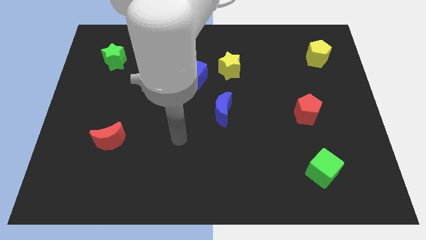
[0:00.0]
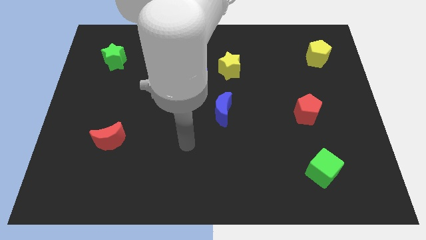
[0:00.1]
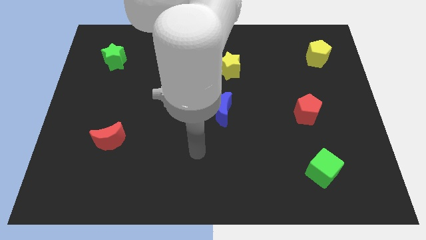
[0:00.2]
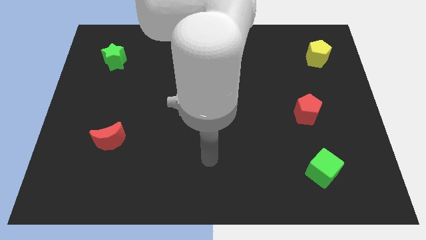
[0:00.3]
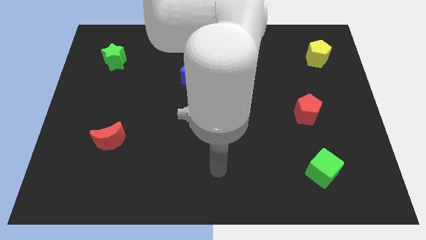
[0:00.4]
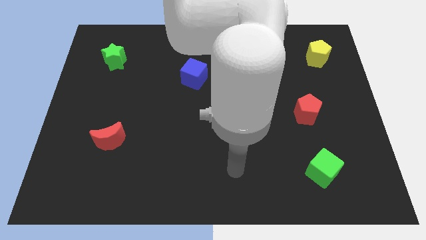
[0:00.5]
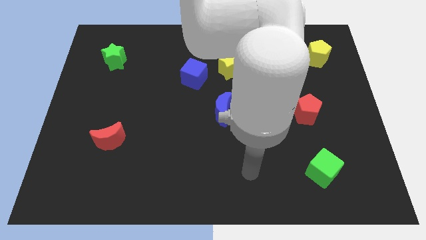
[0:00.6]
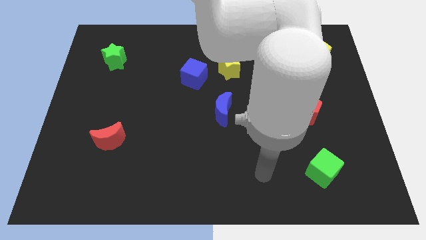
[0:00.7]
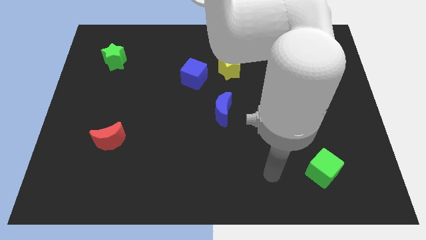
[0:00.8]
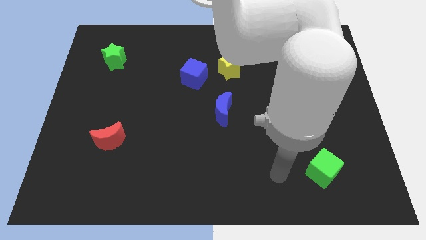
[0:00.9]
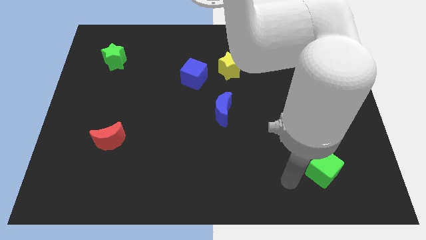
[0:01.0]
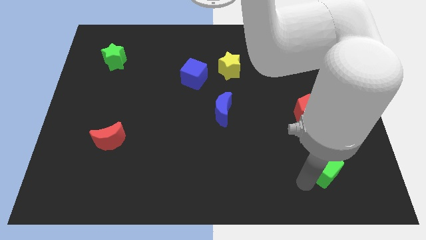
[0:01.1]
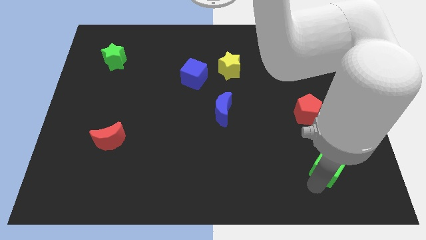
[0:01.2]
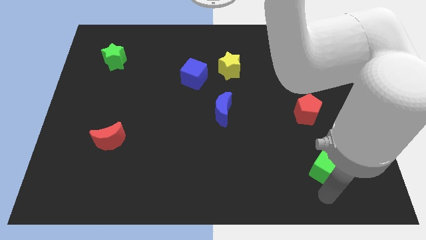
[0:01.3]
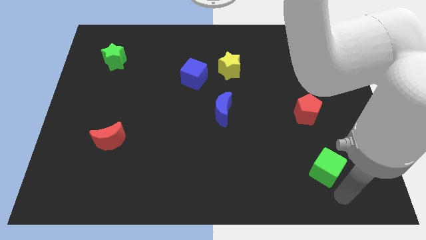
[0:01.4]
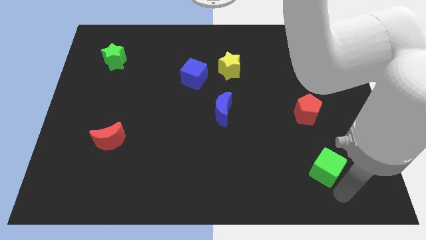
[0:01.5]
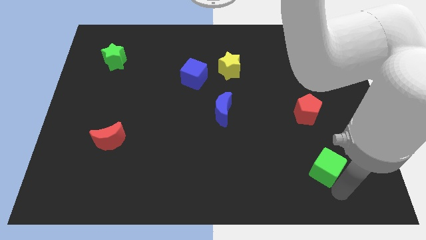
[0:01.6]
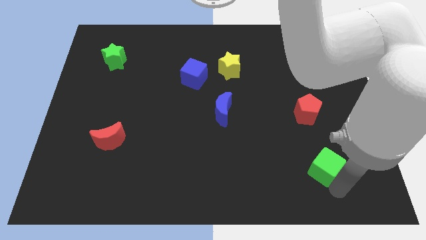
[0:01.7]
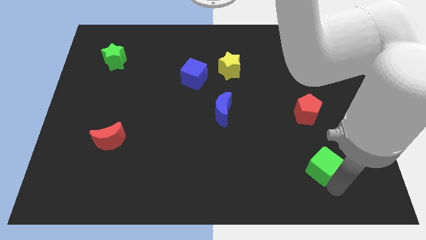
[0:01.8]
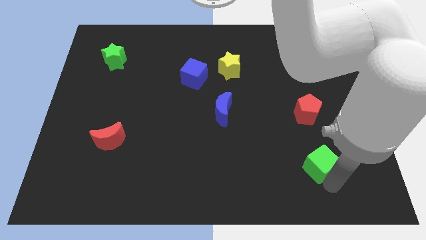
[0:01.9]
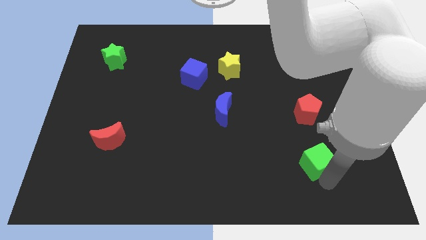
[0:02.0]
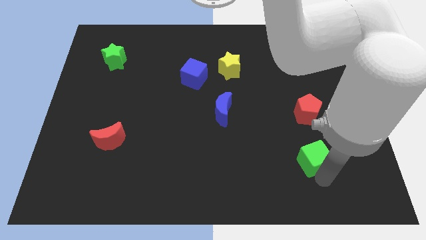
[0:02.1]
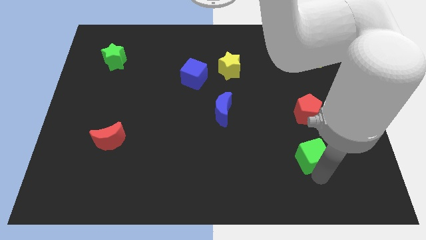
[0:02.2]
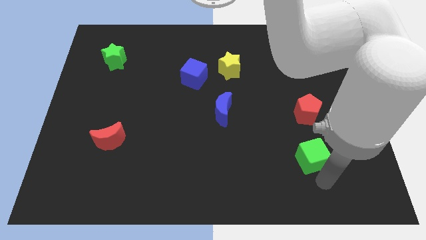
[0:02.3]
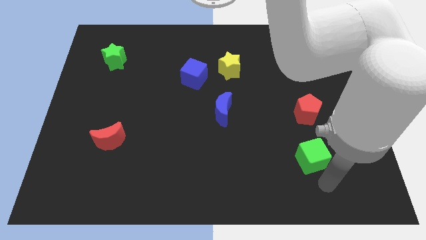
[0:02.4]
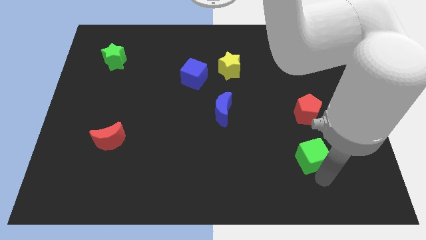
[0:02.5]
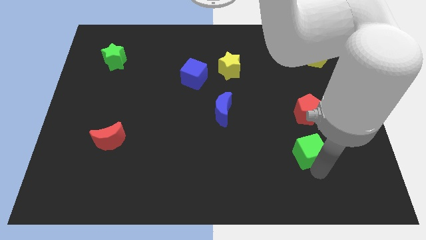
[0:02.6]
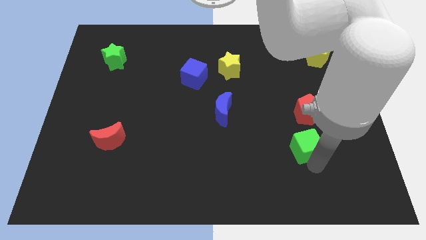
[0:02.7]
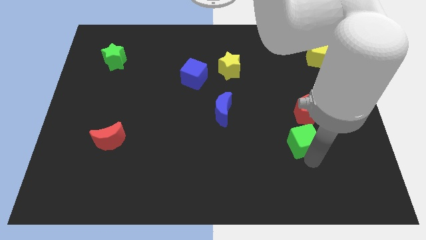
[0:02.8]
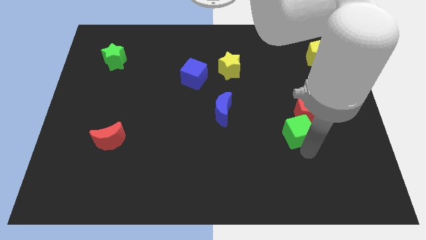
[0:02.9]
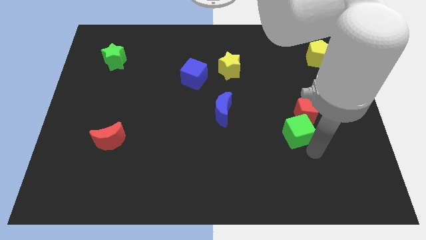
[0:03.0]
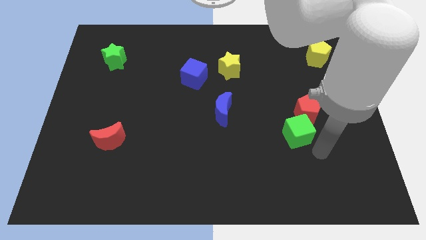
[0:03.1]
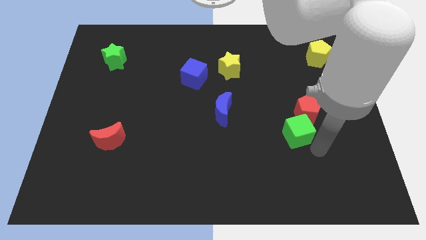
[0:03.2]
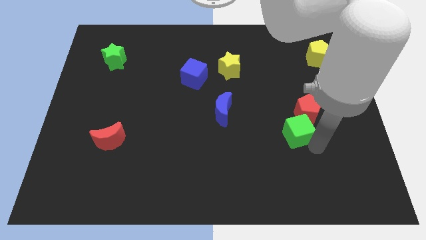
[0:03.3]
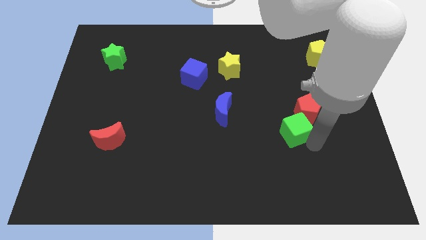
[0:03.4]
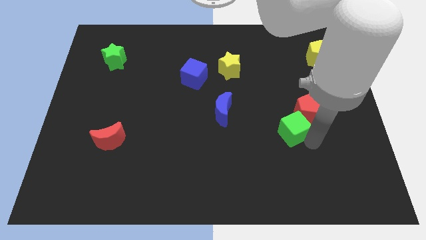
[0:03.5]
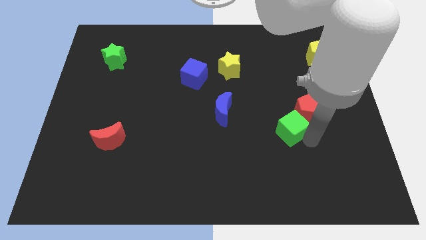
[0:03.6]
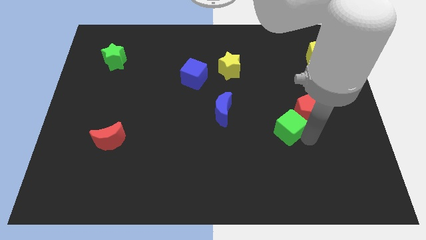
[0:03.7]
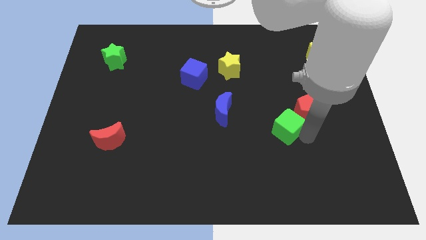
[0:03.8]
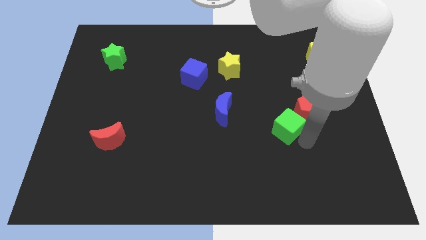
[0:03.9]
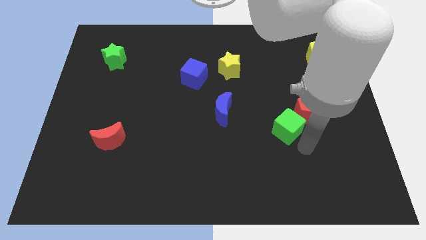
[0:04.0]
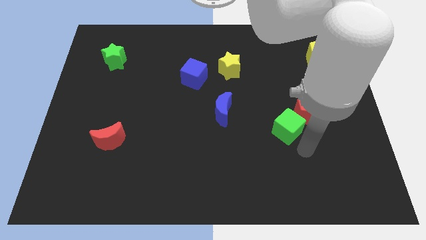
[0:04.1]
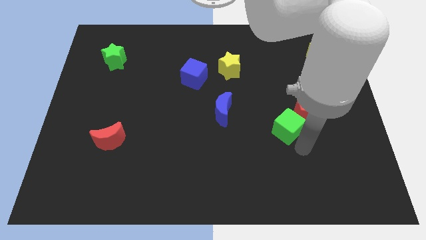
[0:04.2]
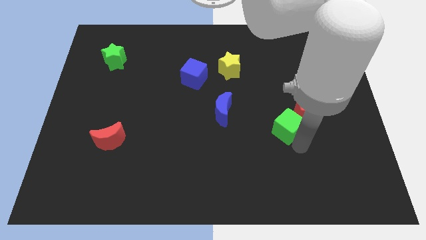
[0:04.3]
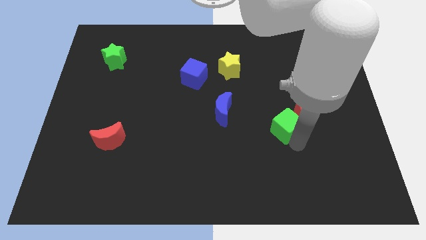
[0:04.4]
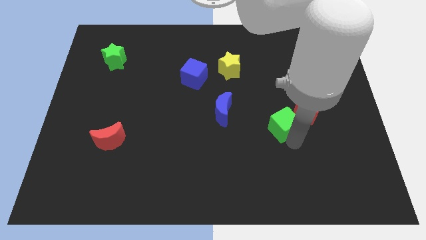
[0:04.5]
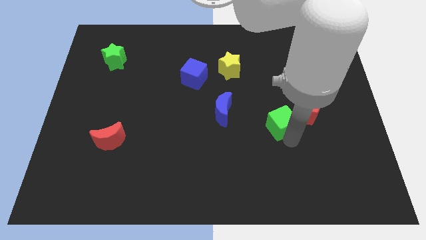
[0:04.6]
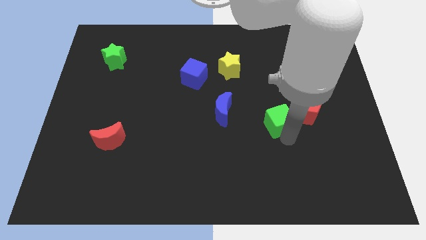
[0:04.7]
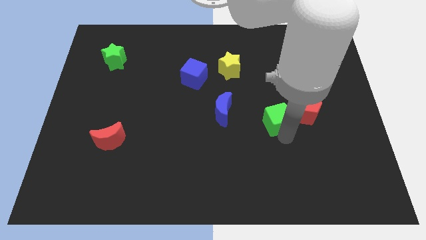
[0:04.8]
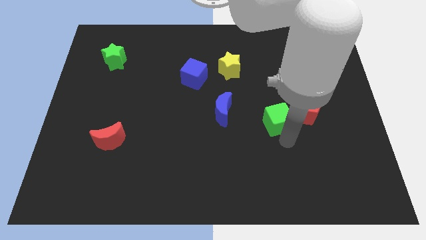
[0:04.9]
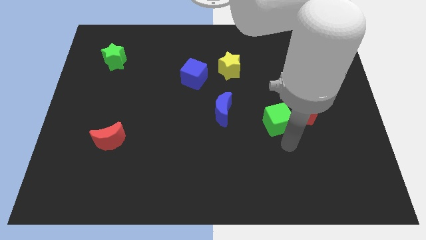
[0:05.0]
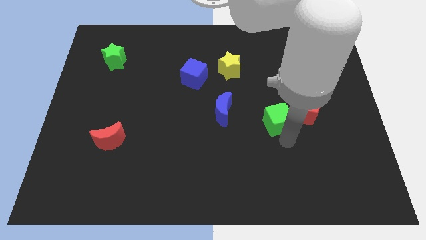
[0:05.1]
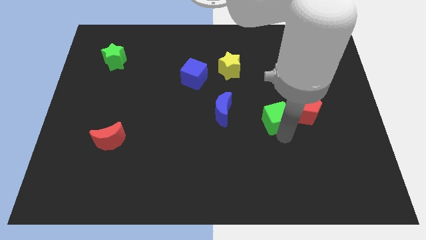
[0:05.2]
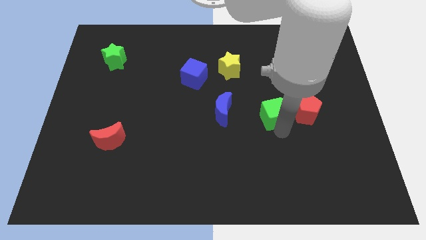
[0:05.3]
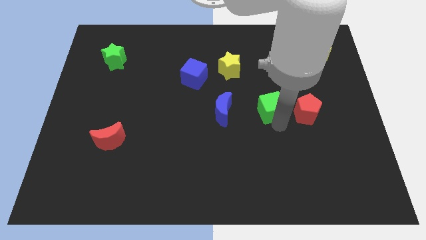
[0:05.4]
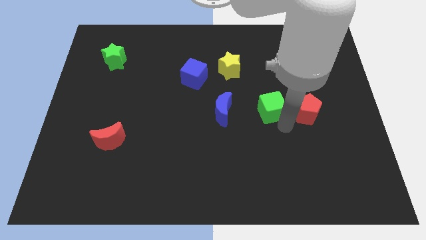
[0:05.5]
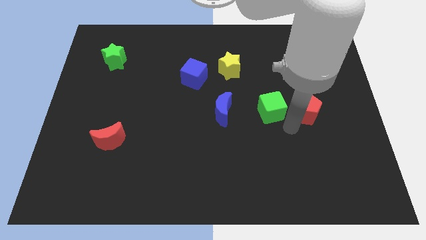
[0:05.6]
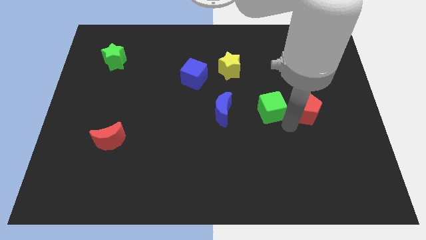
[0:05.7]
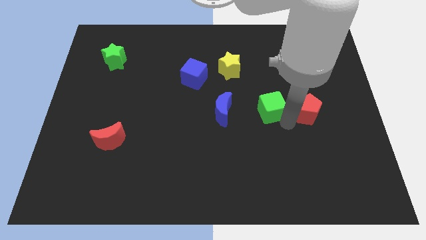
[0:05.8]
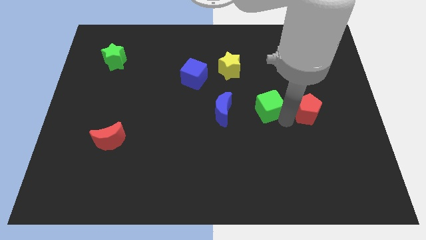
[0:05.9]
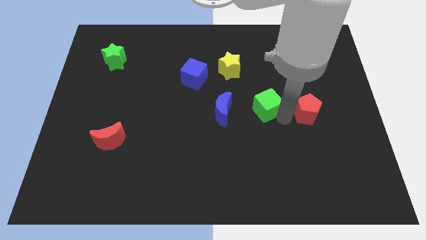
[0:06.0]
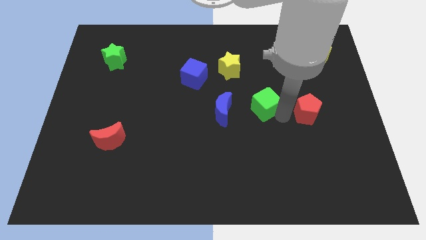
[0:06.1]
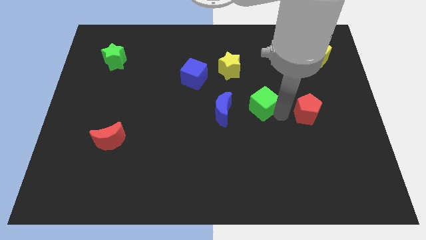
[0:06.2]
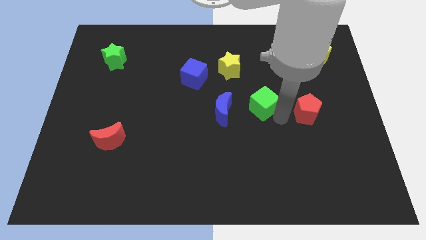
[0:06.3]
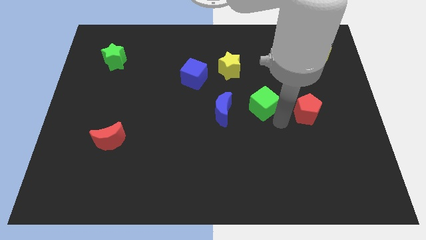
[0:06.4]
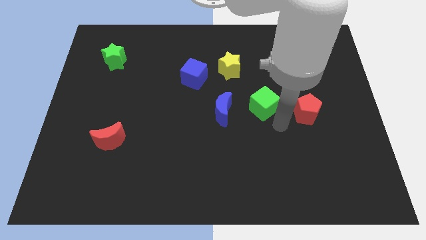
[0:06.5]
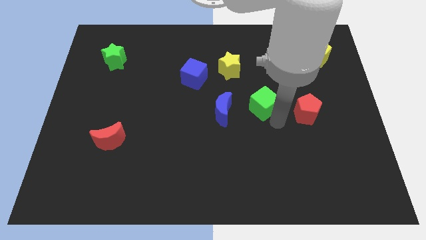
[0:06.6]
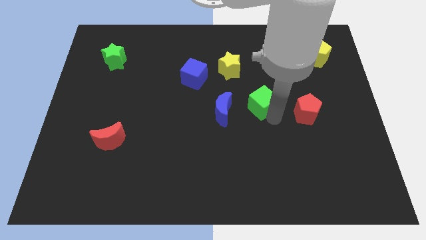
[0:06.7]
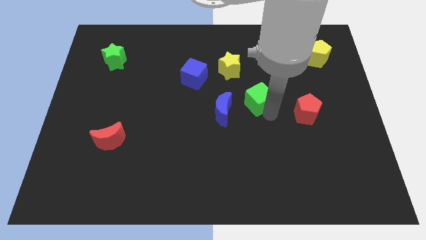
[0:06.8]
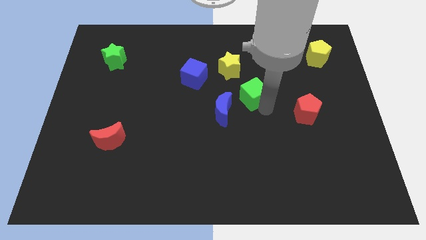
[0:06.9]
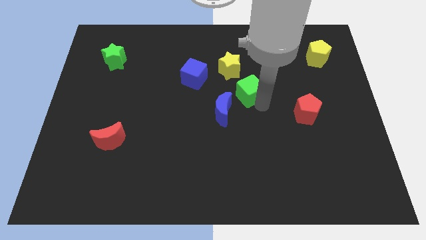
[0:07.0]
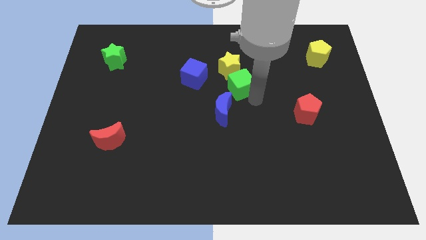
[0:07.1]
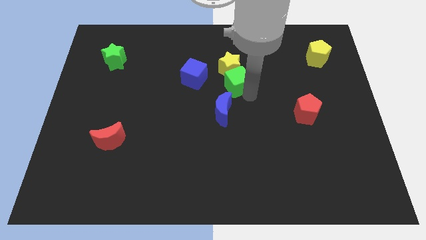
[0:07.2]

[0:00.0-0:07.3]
slide the green cube towards the yellow star

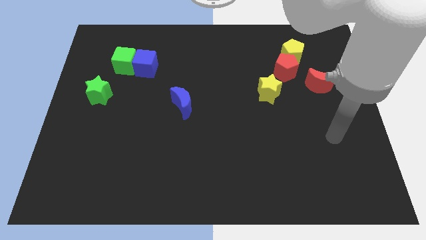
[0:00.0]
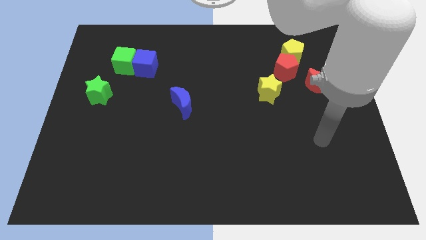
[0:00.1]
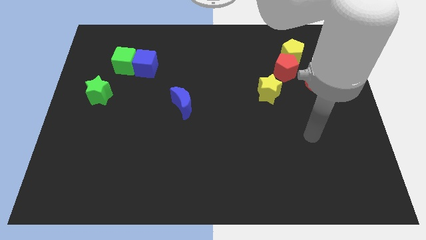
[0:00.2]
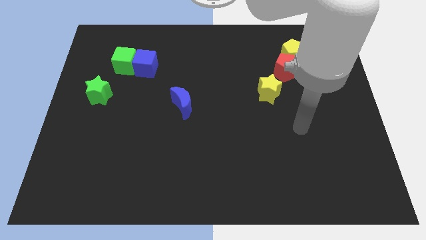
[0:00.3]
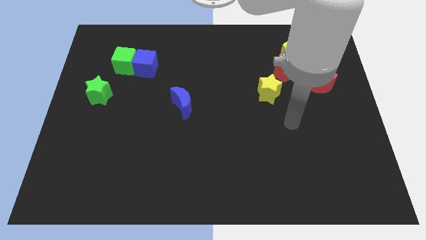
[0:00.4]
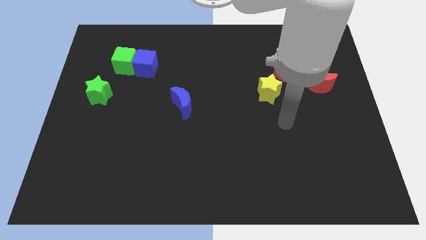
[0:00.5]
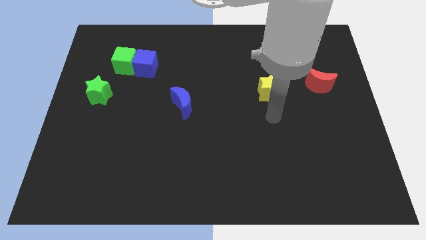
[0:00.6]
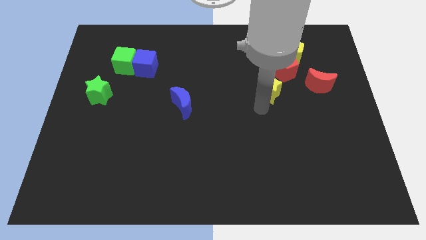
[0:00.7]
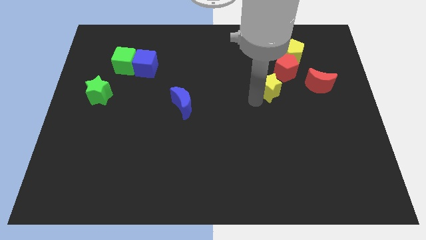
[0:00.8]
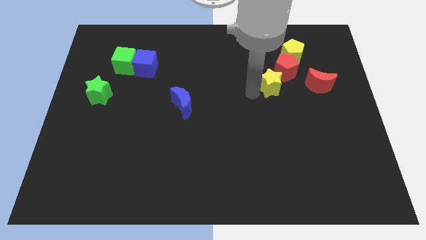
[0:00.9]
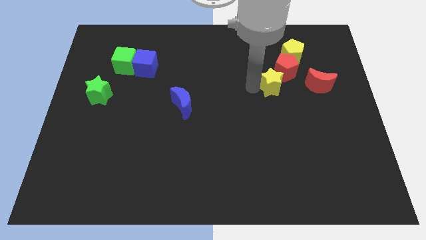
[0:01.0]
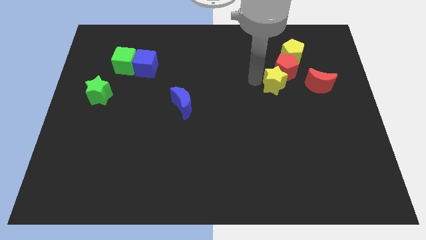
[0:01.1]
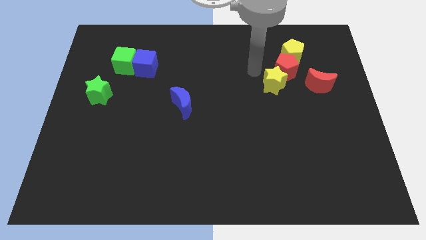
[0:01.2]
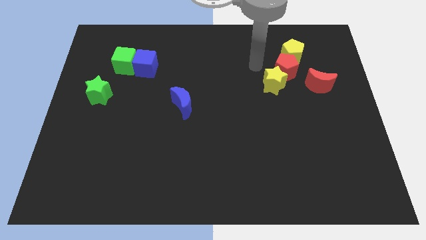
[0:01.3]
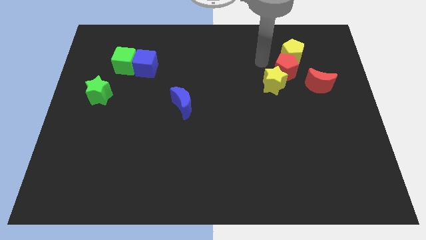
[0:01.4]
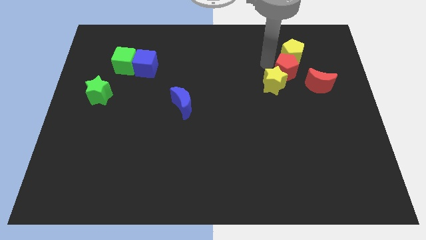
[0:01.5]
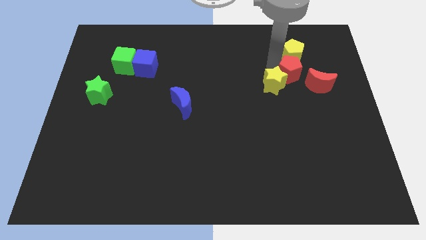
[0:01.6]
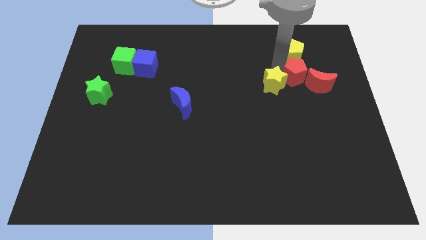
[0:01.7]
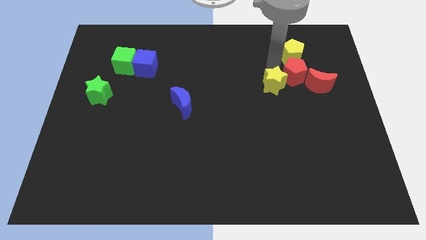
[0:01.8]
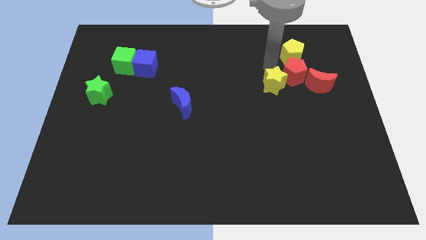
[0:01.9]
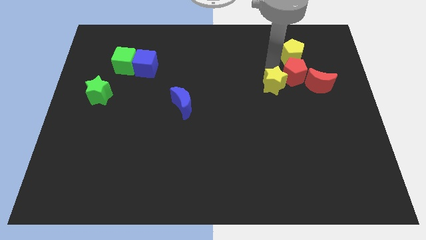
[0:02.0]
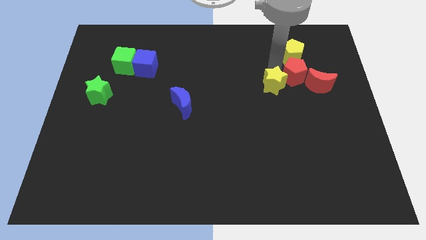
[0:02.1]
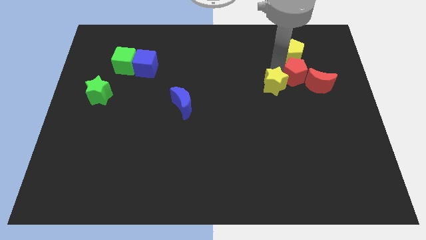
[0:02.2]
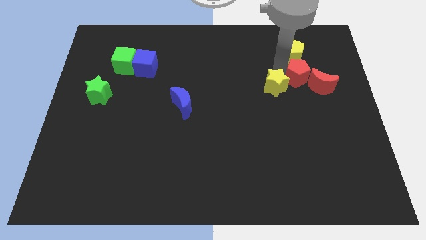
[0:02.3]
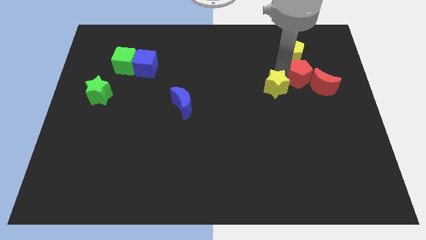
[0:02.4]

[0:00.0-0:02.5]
push the red pentagon to the red moon
